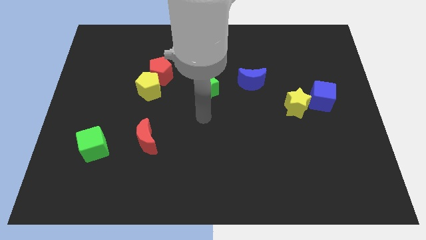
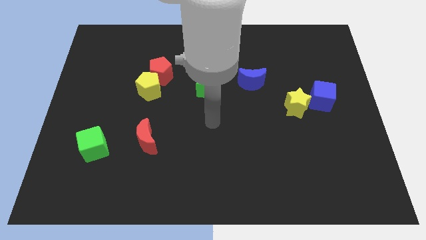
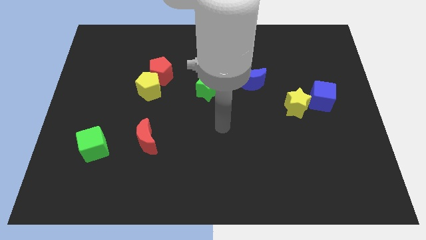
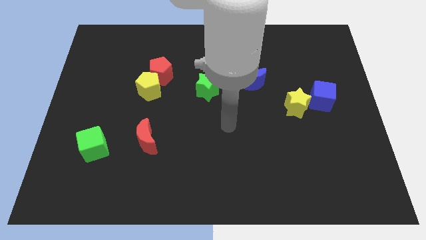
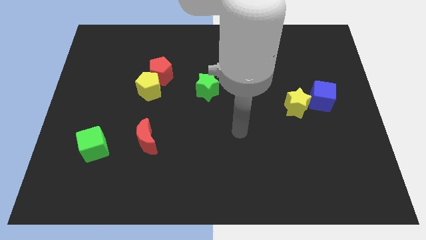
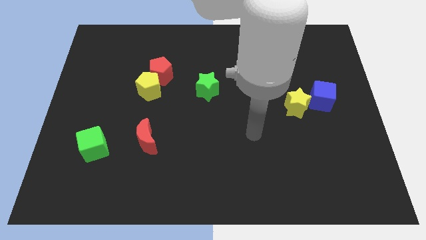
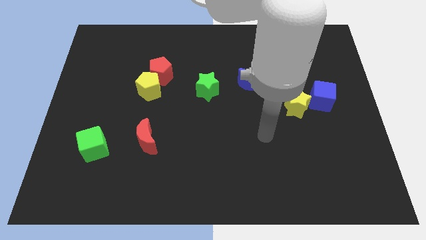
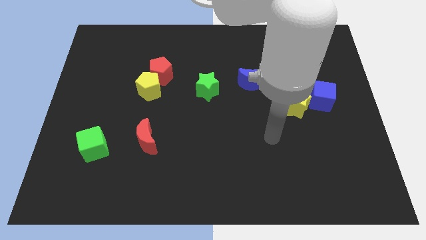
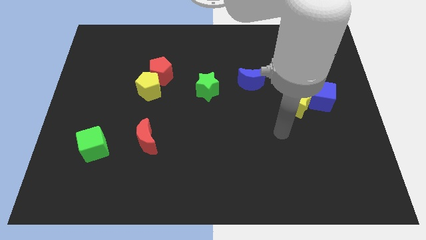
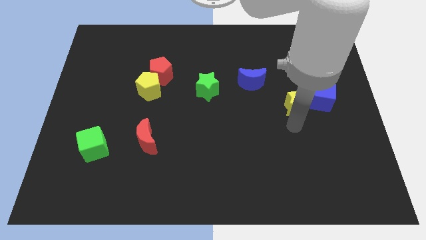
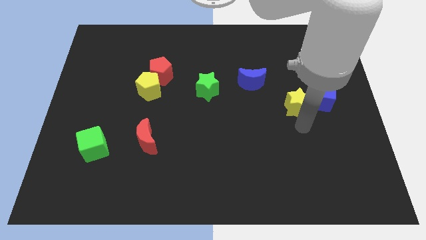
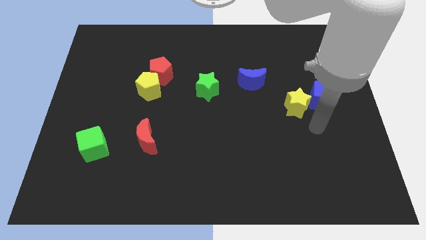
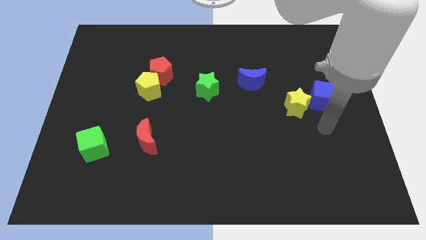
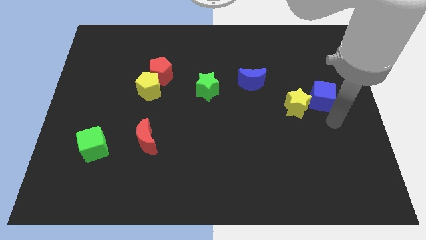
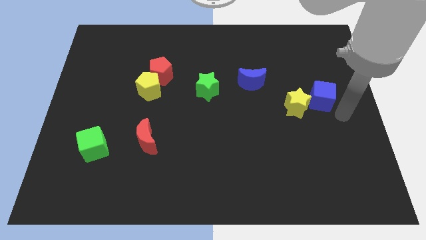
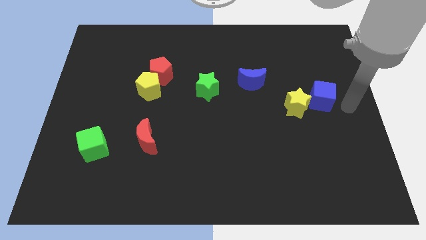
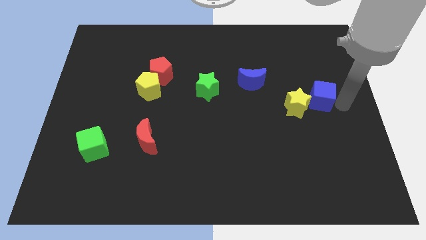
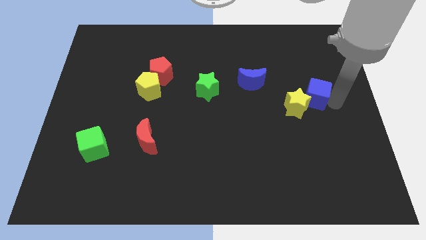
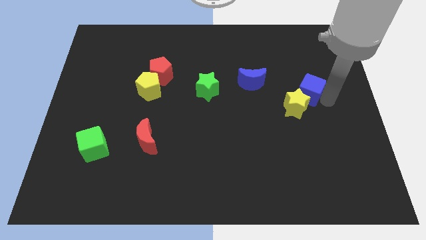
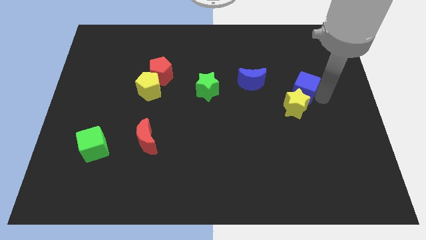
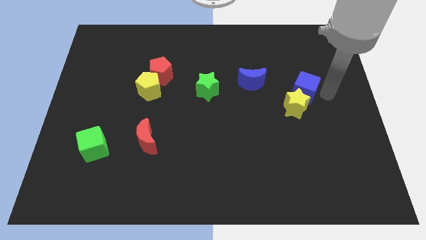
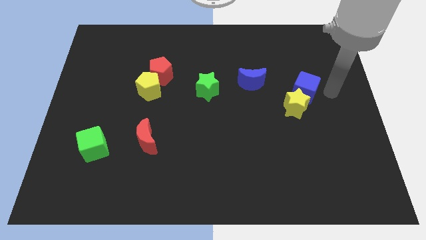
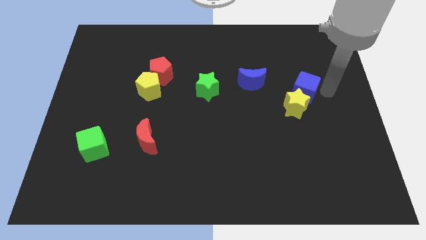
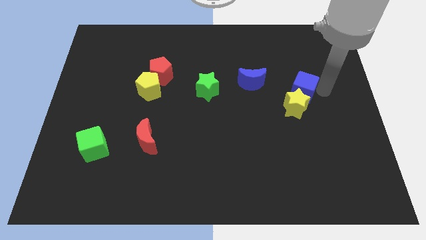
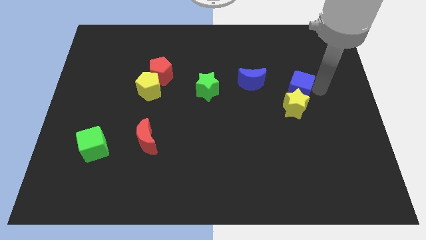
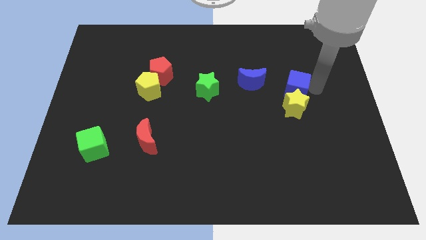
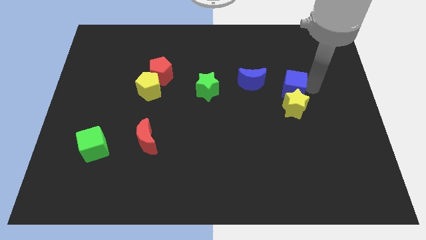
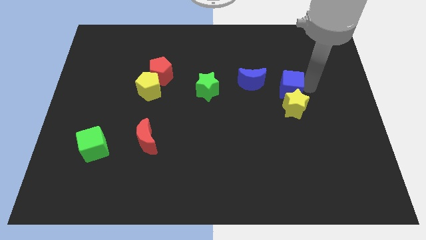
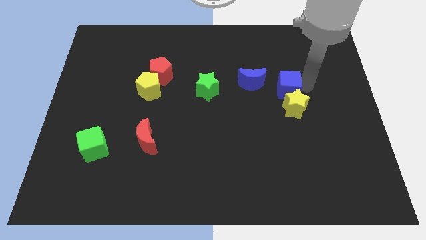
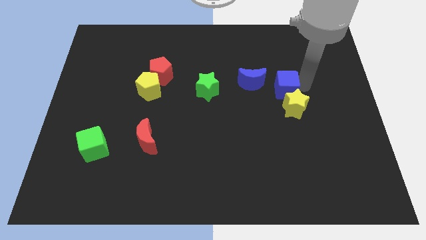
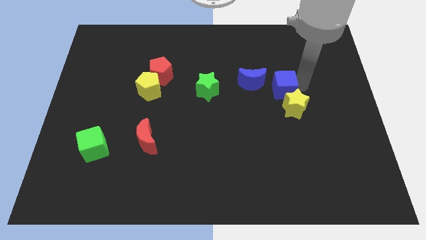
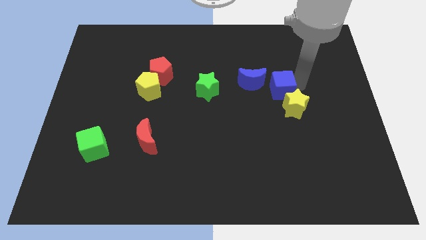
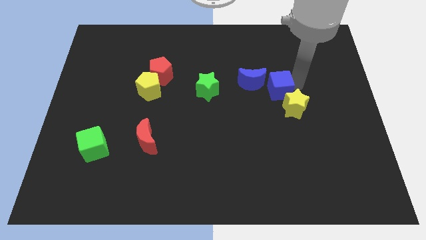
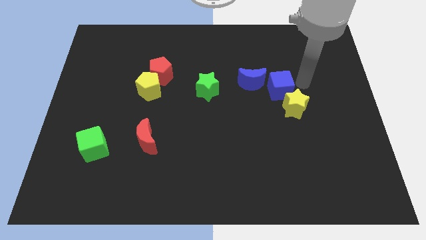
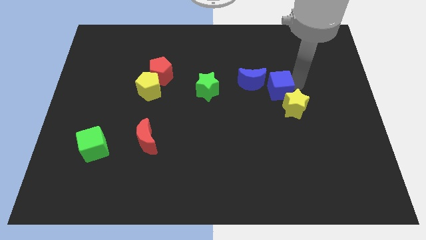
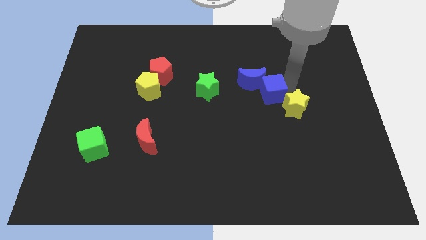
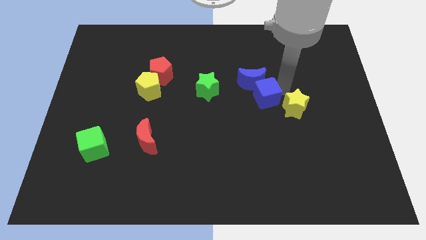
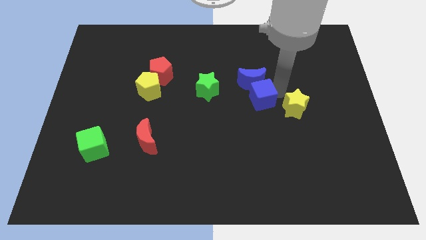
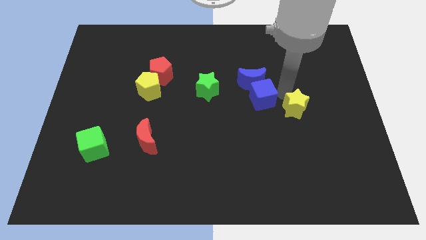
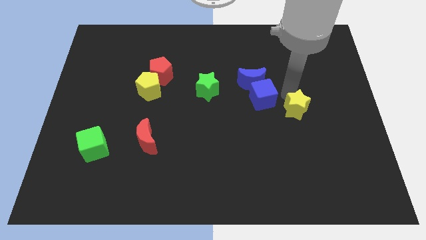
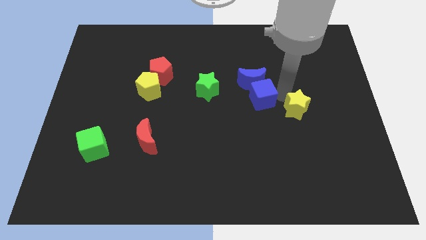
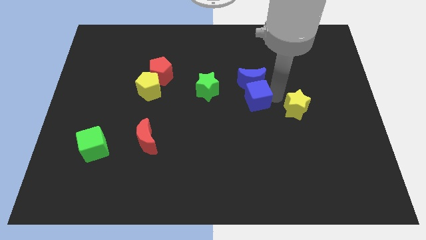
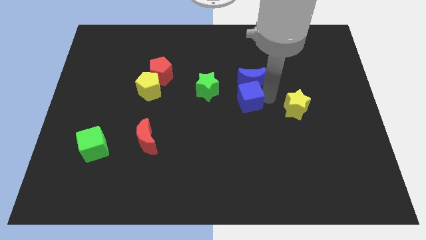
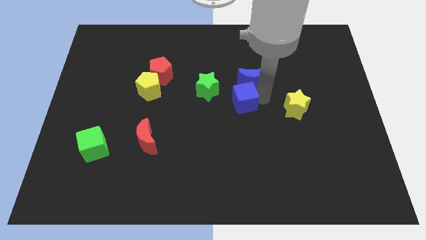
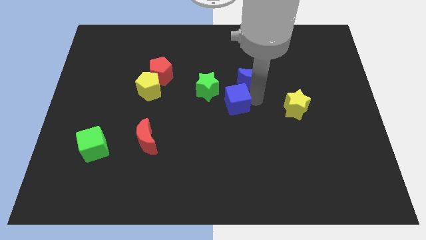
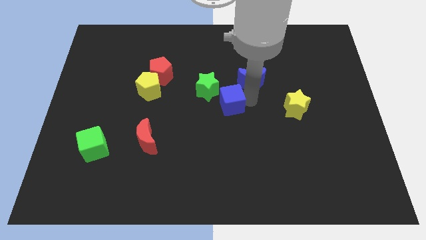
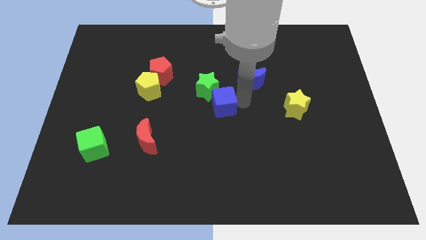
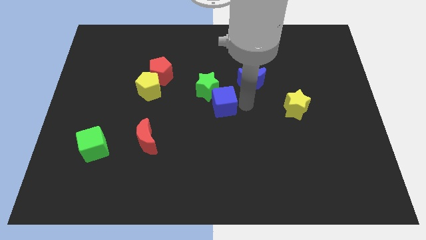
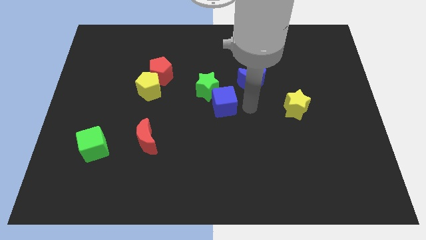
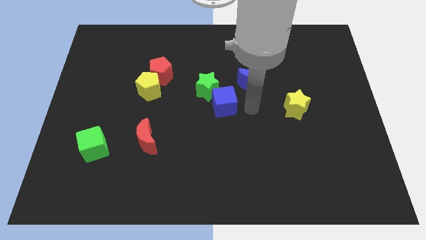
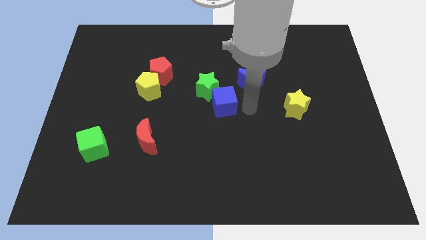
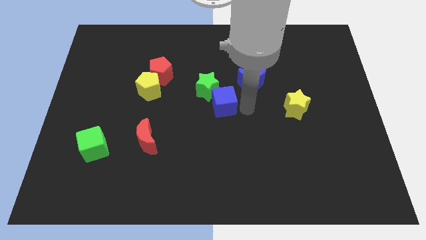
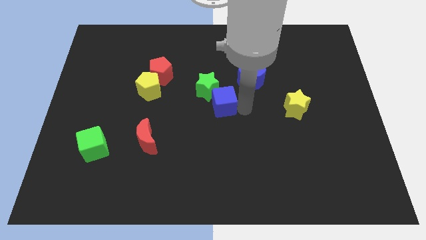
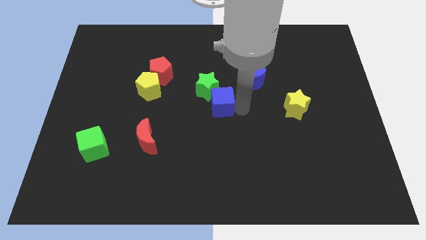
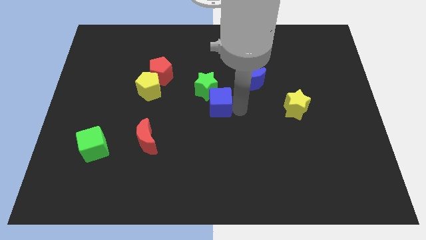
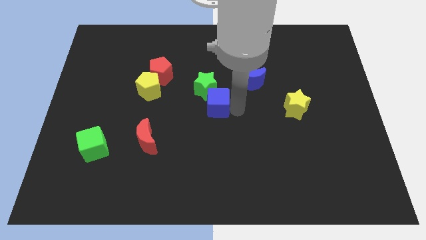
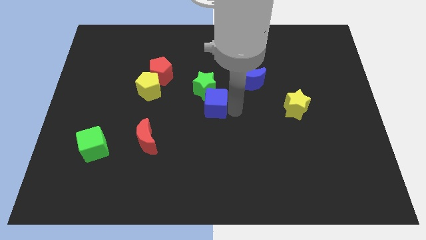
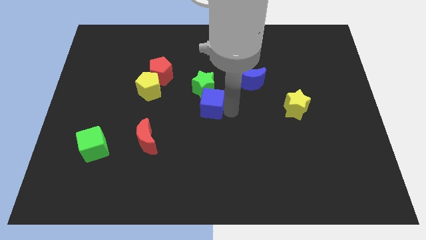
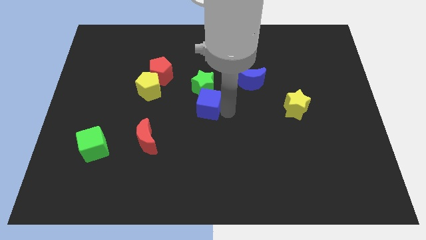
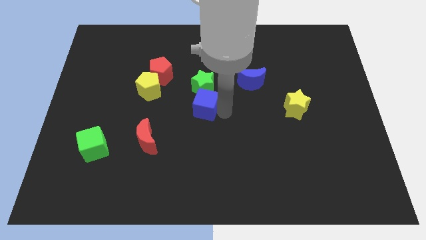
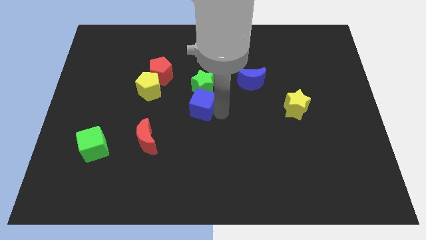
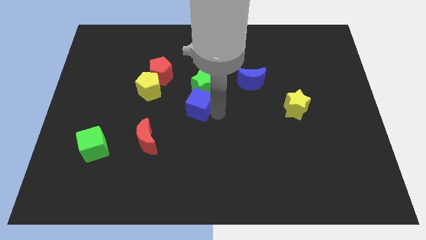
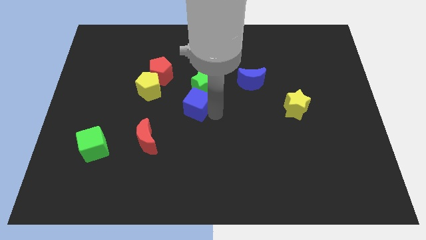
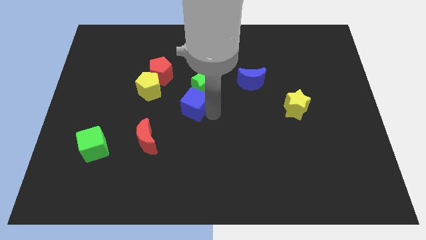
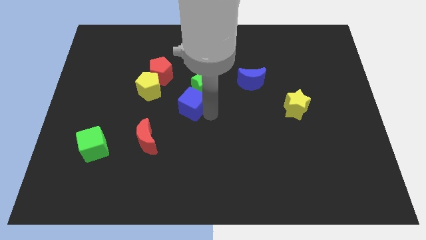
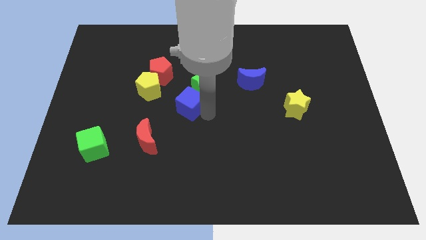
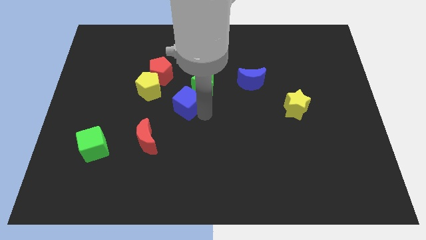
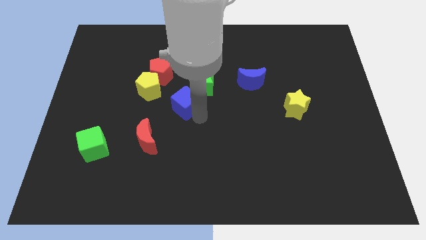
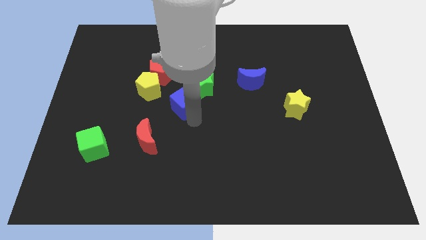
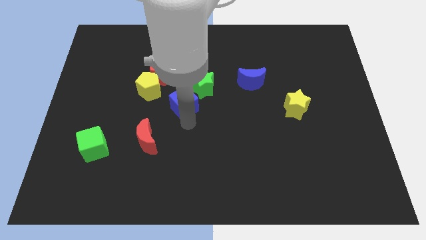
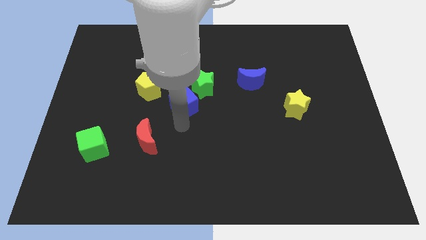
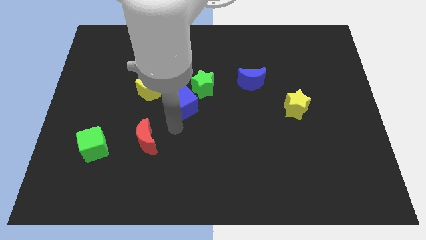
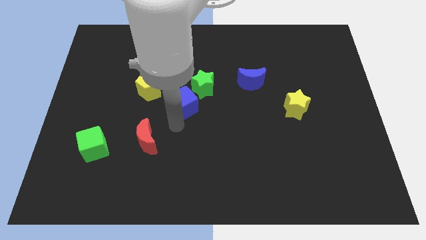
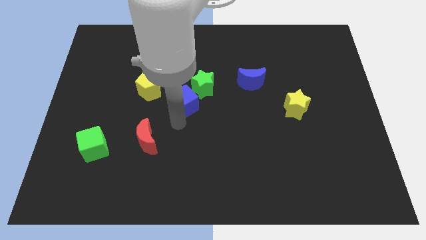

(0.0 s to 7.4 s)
move the blue cube to the right side of the yellow pentagon

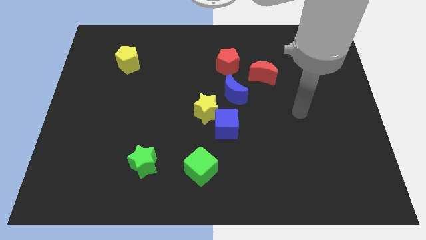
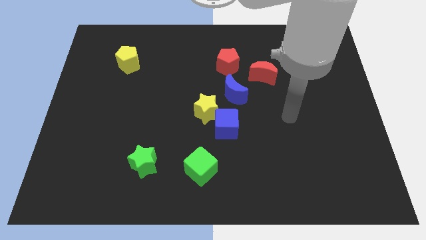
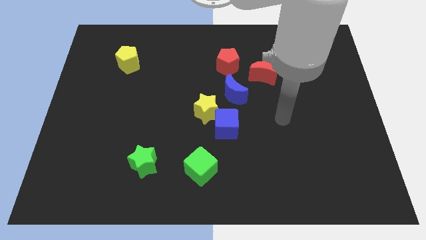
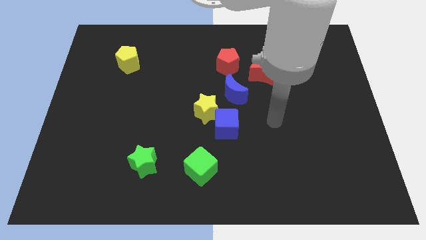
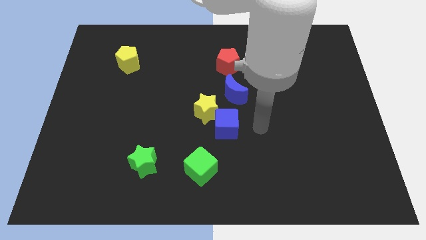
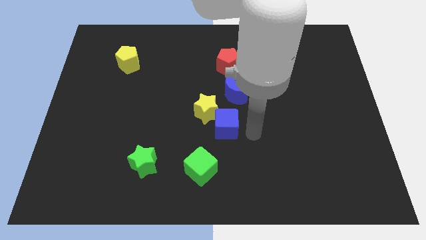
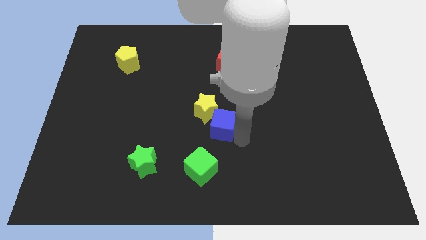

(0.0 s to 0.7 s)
put the green cube to the bottom side of the blue cube
